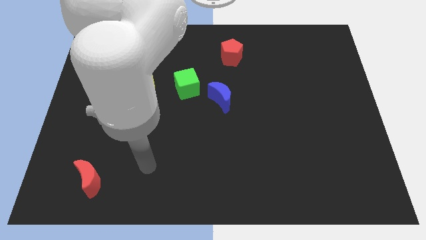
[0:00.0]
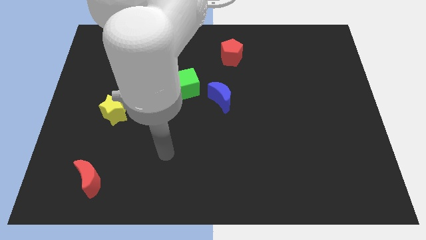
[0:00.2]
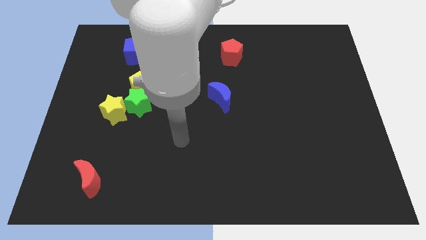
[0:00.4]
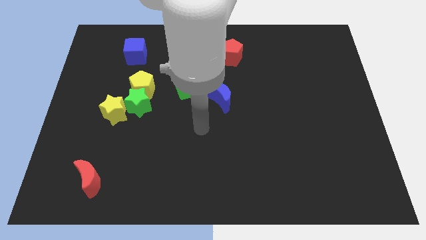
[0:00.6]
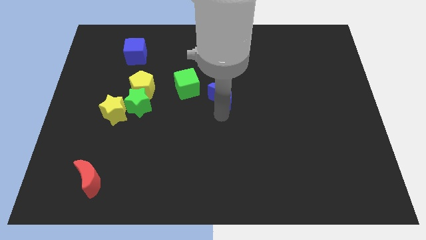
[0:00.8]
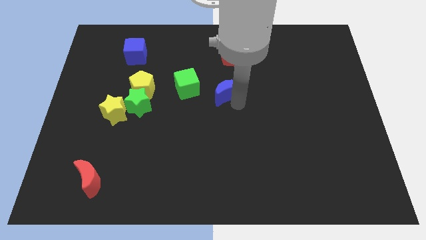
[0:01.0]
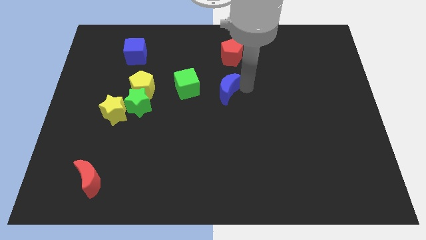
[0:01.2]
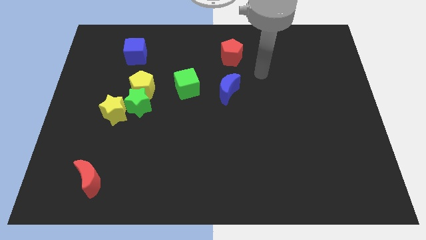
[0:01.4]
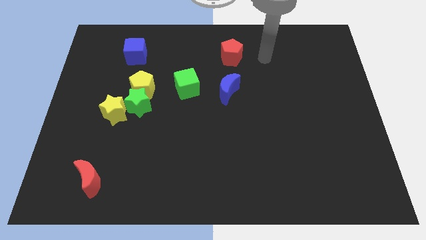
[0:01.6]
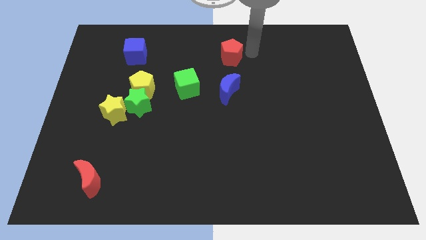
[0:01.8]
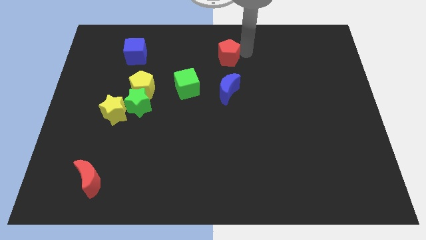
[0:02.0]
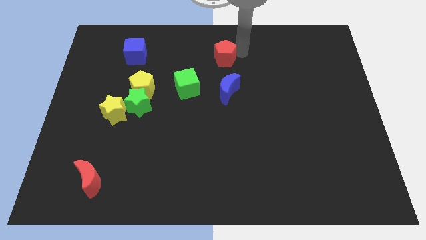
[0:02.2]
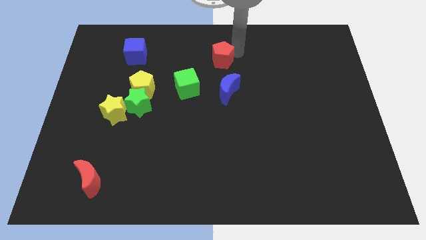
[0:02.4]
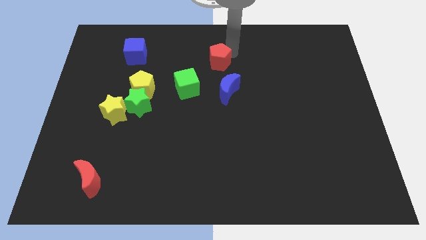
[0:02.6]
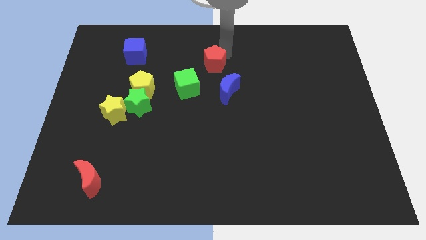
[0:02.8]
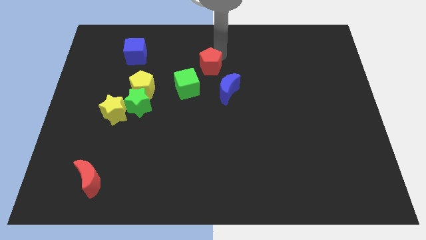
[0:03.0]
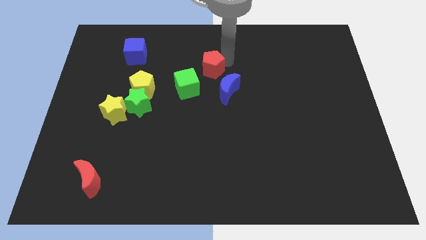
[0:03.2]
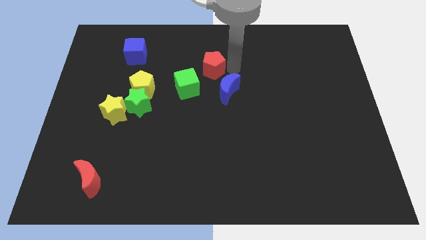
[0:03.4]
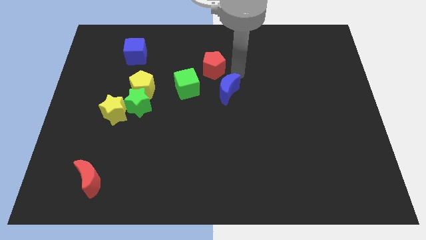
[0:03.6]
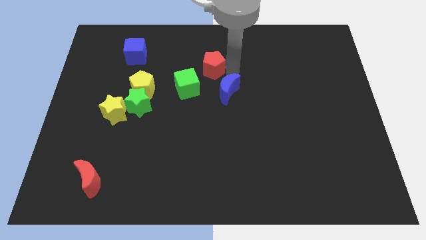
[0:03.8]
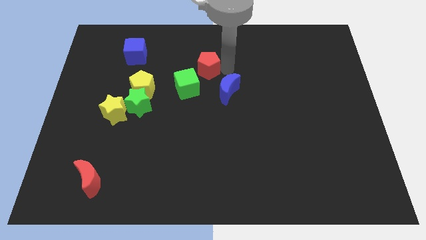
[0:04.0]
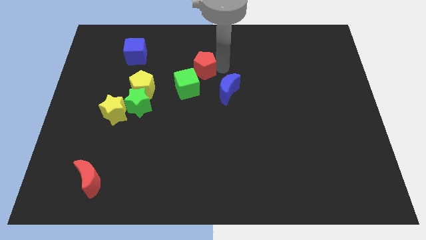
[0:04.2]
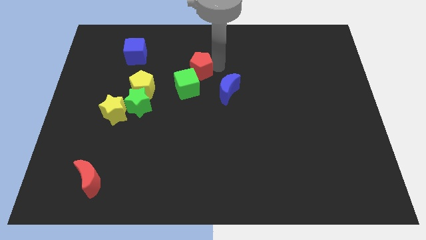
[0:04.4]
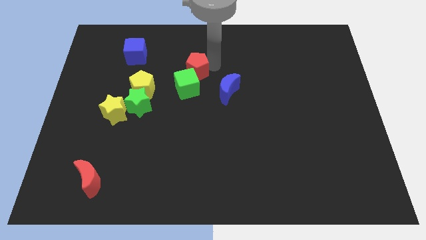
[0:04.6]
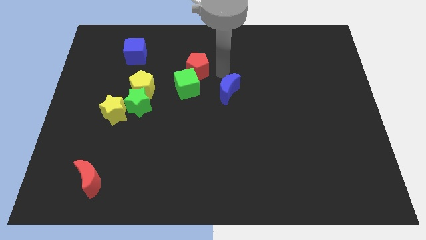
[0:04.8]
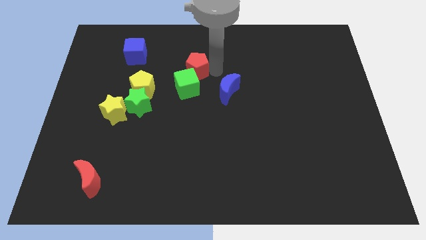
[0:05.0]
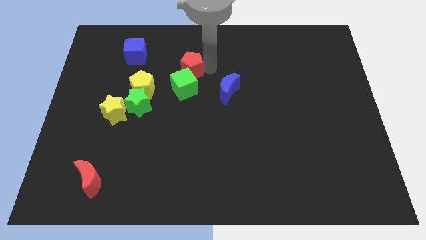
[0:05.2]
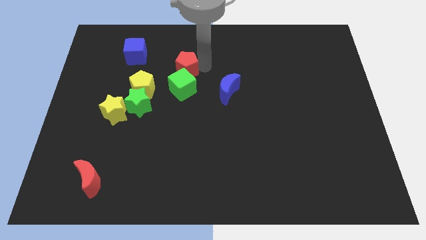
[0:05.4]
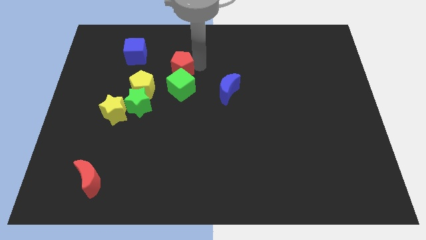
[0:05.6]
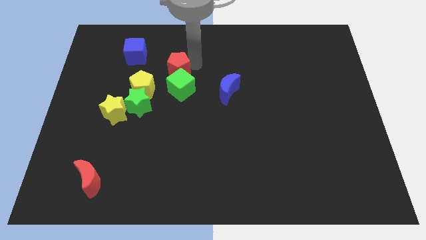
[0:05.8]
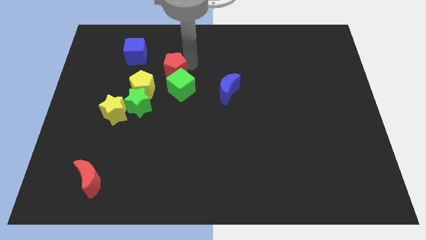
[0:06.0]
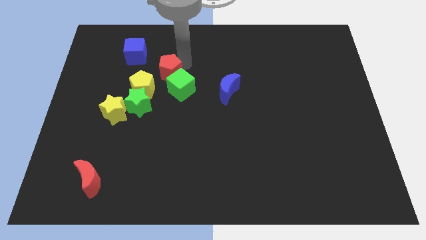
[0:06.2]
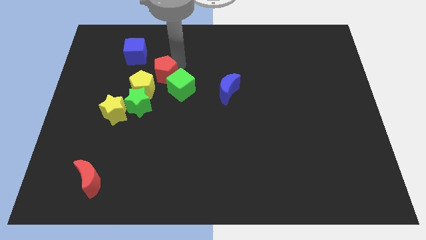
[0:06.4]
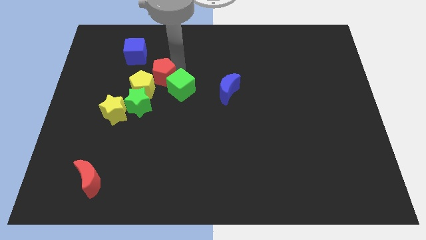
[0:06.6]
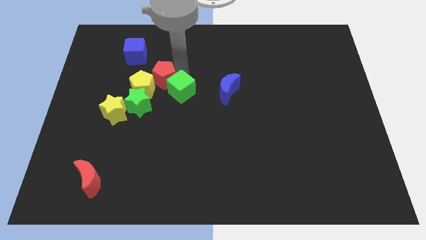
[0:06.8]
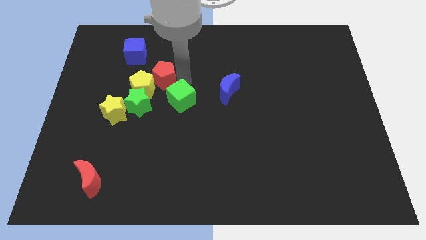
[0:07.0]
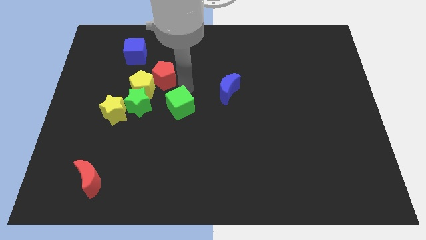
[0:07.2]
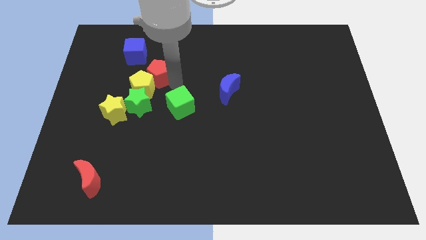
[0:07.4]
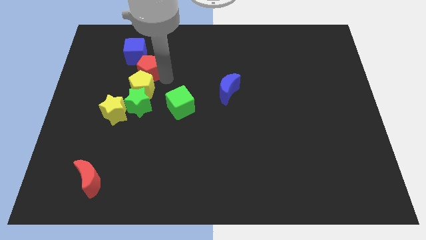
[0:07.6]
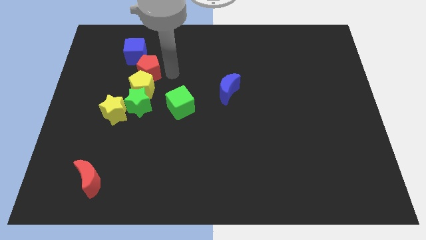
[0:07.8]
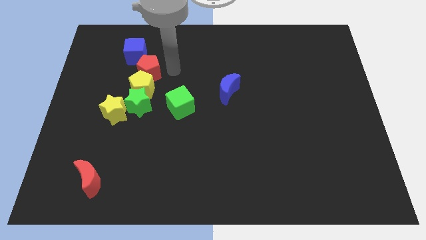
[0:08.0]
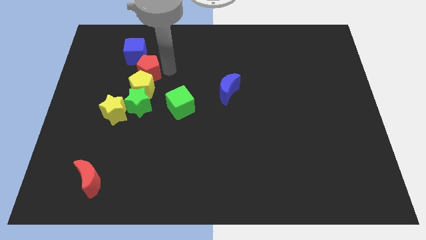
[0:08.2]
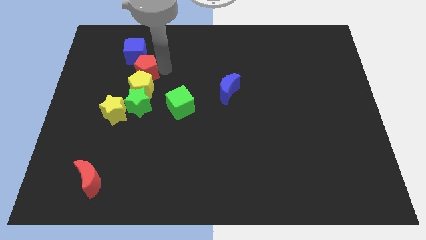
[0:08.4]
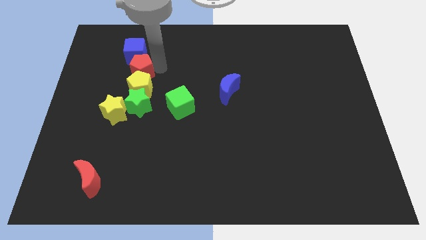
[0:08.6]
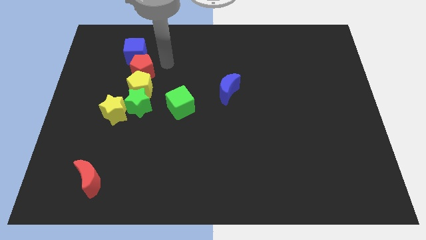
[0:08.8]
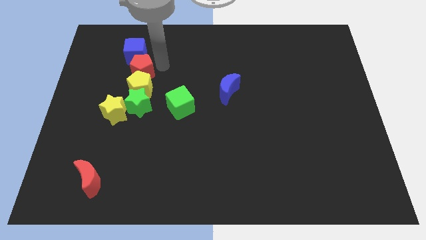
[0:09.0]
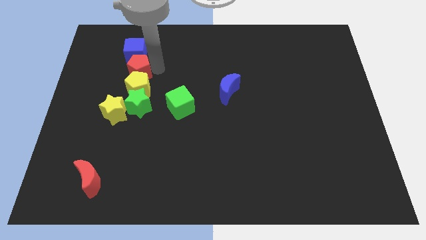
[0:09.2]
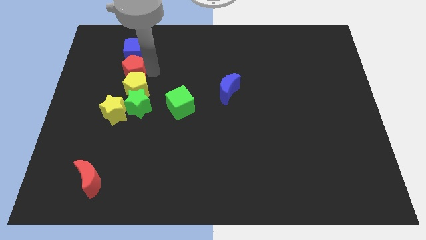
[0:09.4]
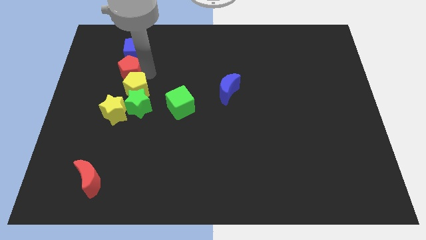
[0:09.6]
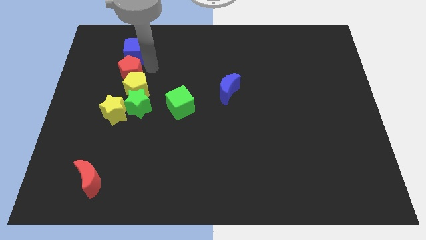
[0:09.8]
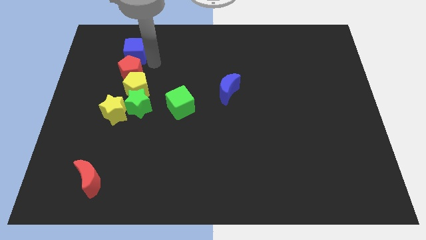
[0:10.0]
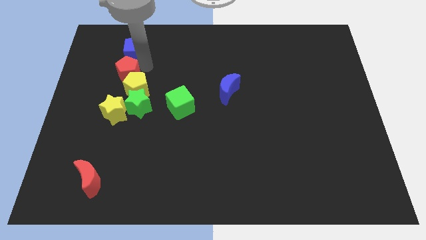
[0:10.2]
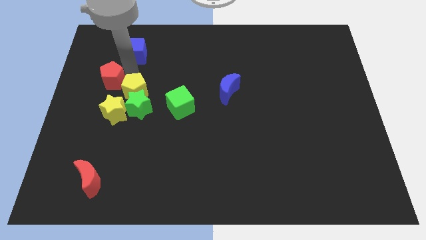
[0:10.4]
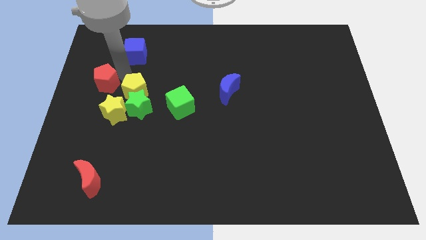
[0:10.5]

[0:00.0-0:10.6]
slide the red pentagon to the center left
